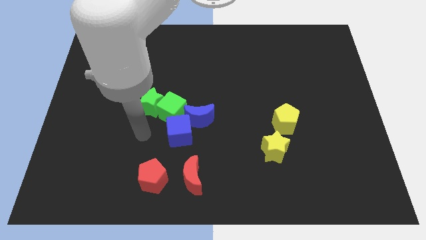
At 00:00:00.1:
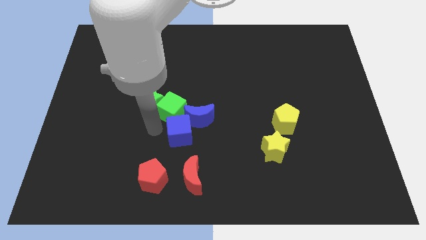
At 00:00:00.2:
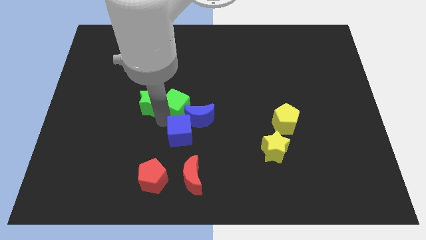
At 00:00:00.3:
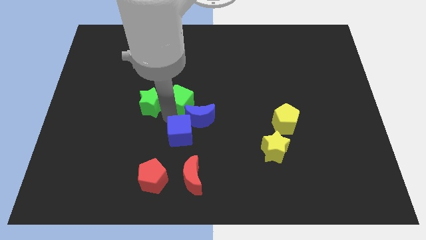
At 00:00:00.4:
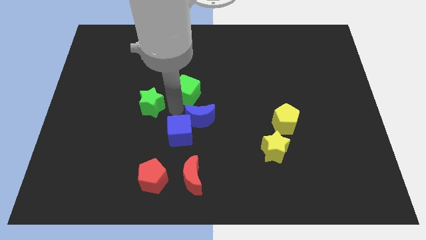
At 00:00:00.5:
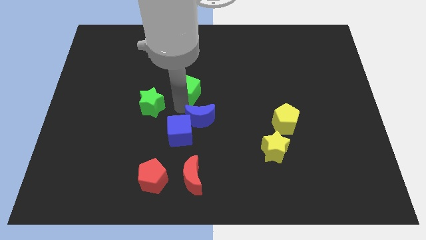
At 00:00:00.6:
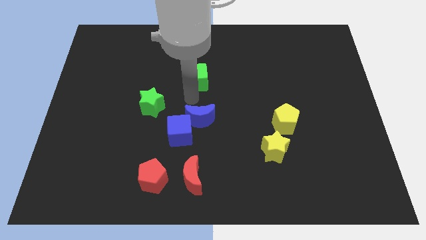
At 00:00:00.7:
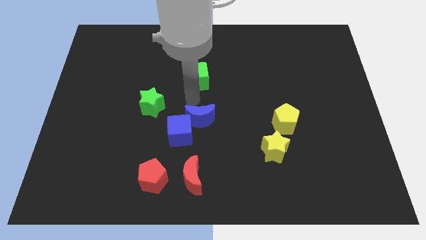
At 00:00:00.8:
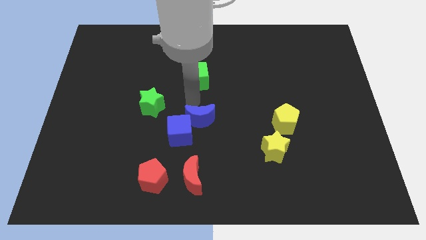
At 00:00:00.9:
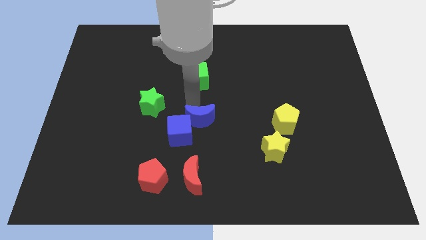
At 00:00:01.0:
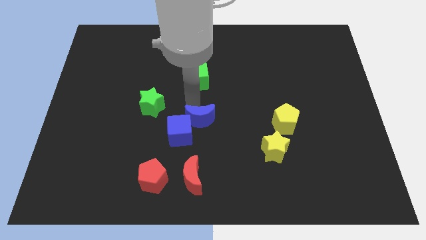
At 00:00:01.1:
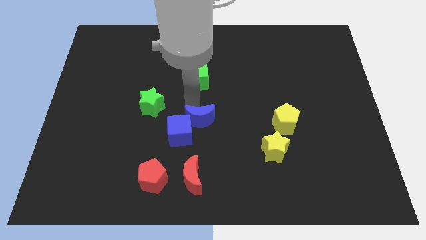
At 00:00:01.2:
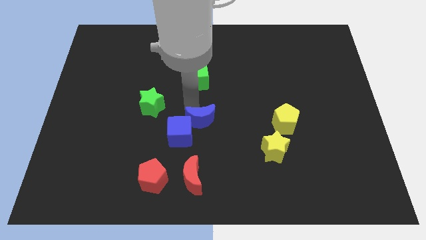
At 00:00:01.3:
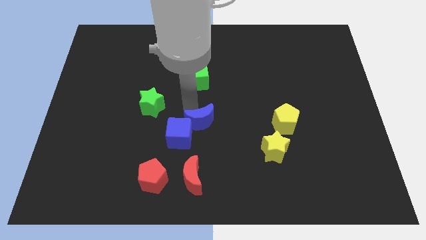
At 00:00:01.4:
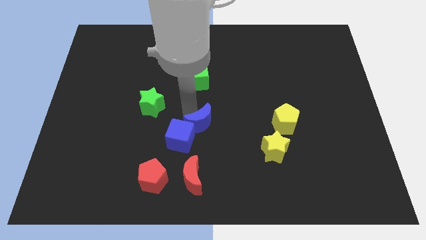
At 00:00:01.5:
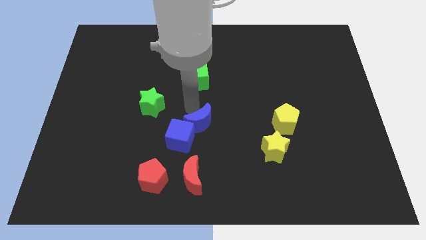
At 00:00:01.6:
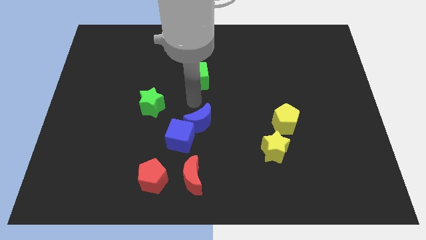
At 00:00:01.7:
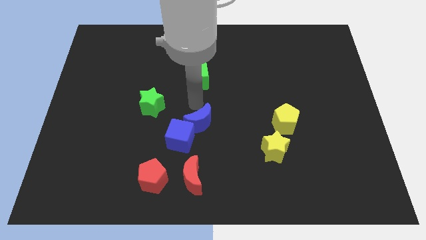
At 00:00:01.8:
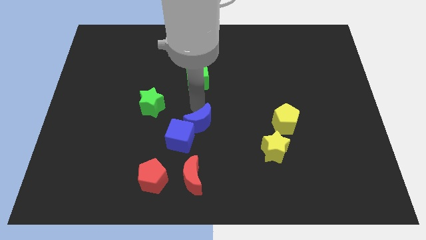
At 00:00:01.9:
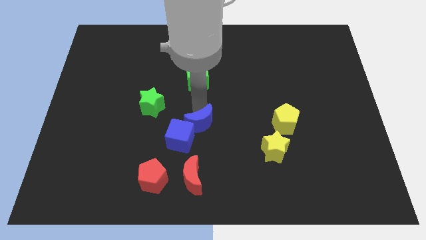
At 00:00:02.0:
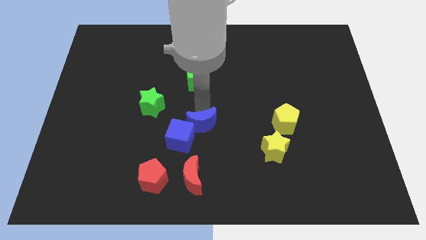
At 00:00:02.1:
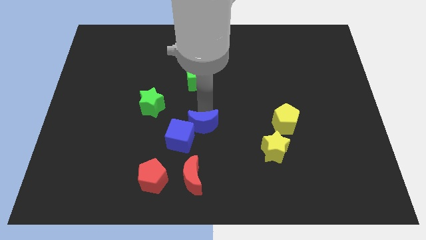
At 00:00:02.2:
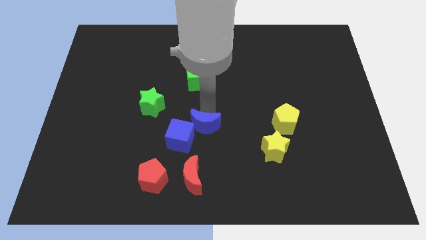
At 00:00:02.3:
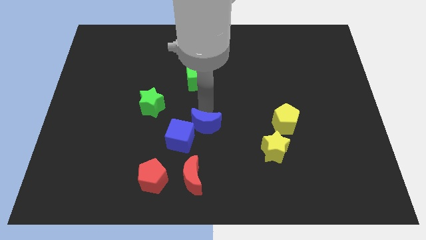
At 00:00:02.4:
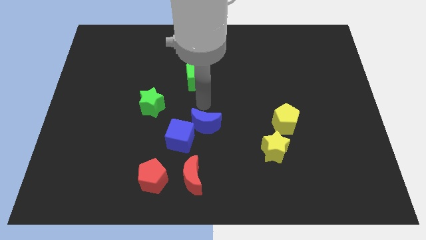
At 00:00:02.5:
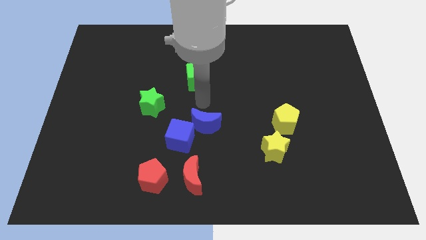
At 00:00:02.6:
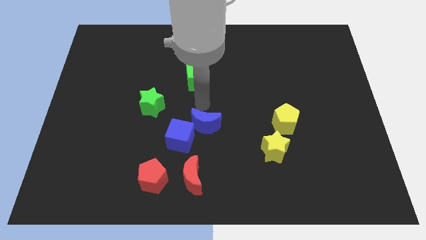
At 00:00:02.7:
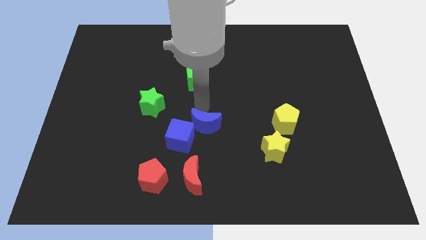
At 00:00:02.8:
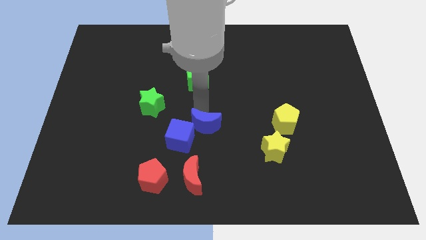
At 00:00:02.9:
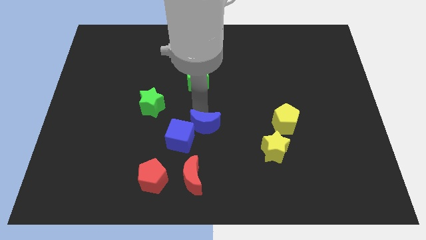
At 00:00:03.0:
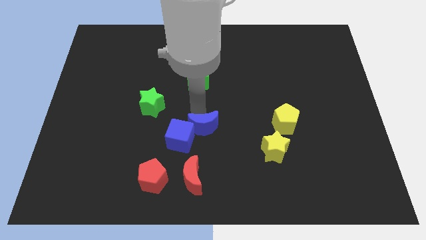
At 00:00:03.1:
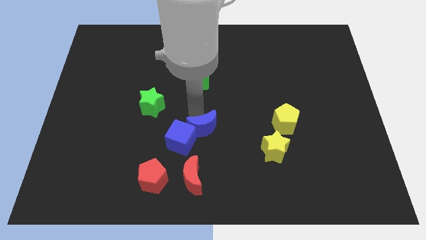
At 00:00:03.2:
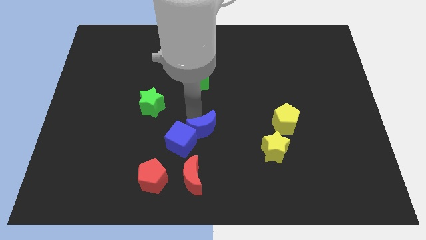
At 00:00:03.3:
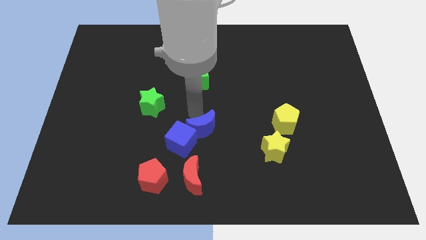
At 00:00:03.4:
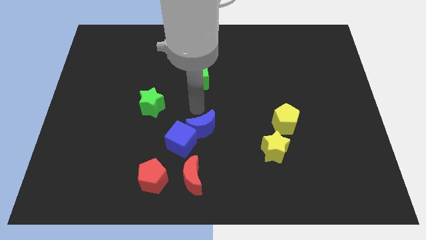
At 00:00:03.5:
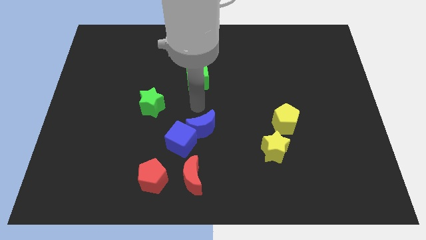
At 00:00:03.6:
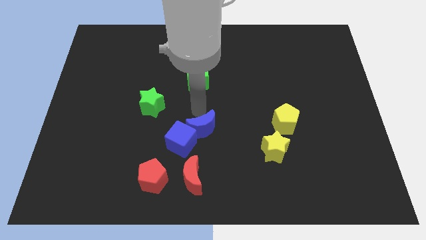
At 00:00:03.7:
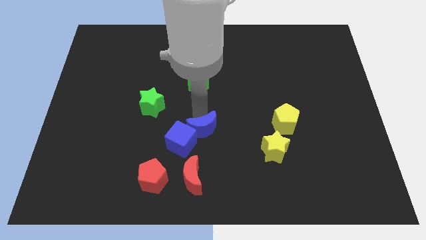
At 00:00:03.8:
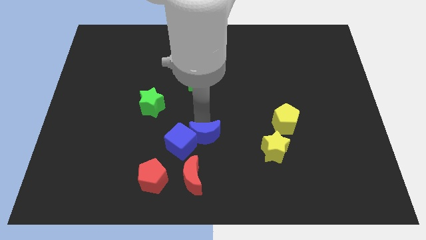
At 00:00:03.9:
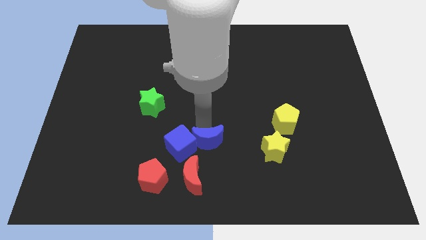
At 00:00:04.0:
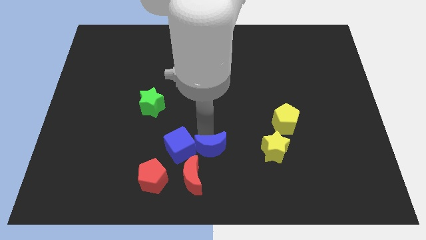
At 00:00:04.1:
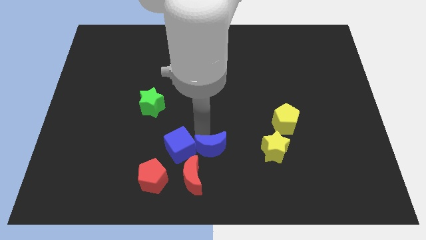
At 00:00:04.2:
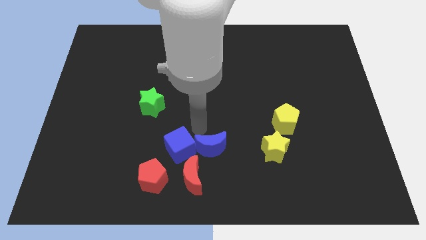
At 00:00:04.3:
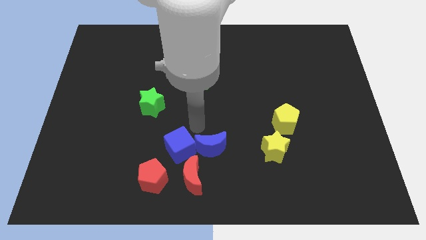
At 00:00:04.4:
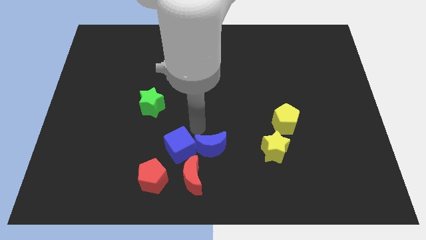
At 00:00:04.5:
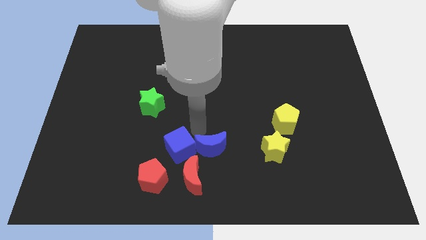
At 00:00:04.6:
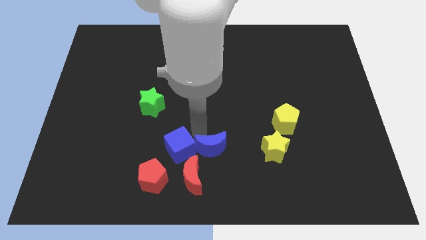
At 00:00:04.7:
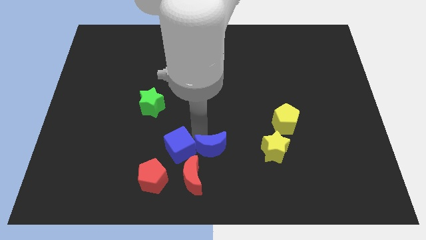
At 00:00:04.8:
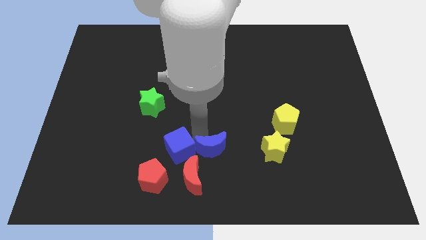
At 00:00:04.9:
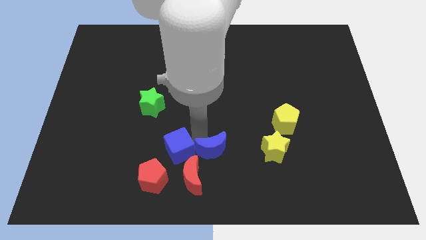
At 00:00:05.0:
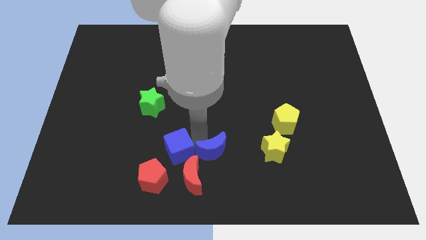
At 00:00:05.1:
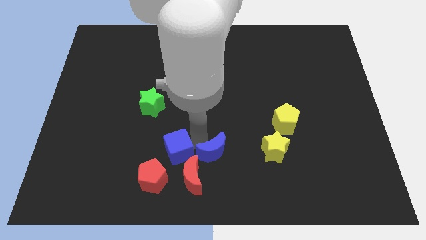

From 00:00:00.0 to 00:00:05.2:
put the blue moon to the bottom
